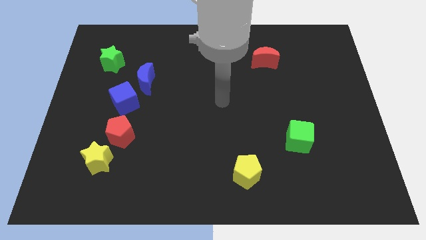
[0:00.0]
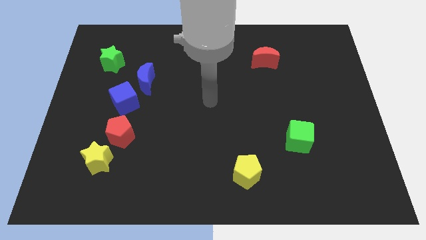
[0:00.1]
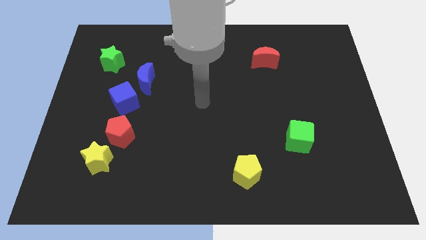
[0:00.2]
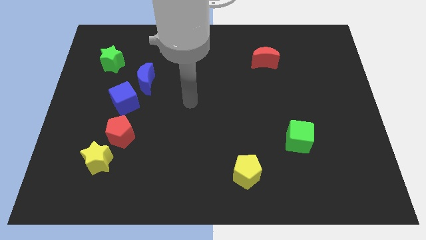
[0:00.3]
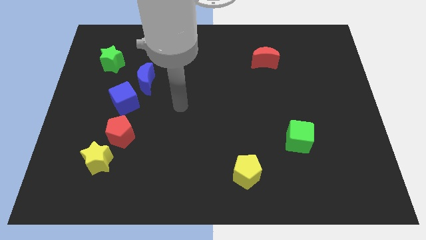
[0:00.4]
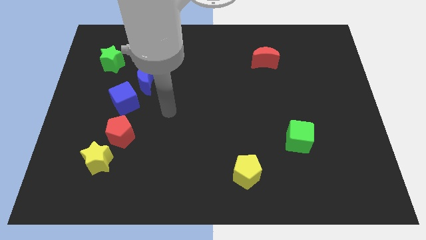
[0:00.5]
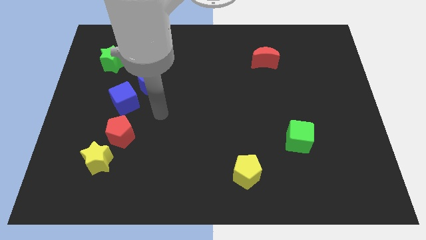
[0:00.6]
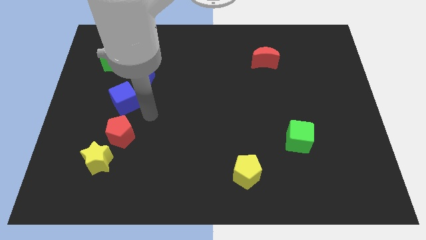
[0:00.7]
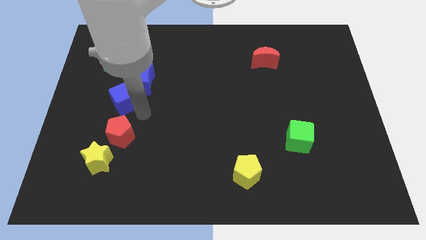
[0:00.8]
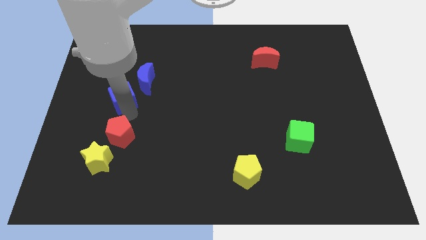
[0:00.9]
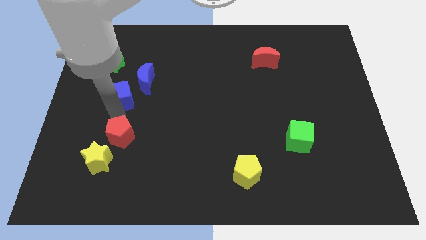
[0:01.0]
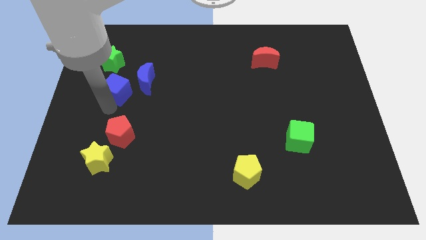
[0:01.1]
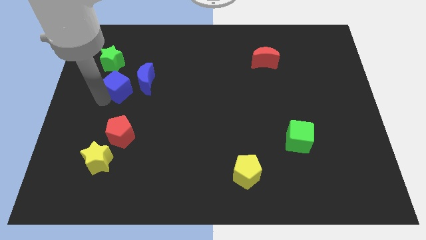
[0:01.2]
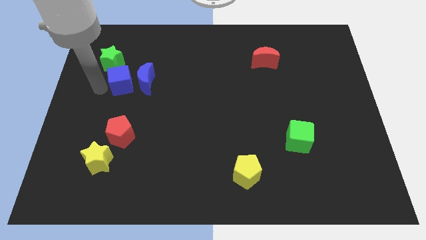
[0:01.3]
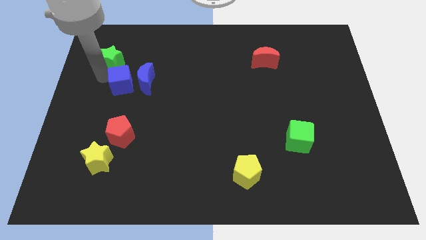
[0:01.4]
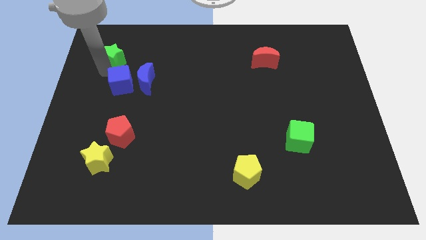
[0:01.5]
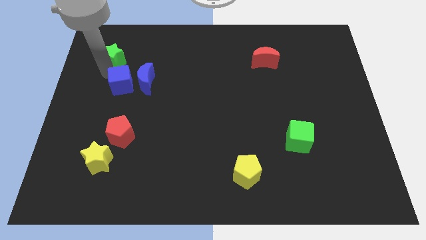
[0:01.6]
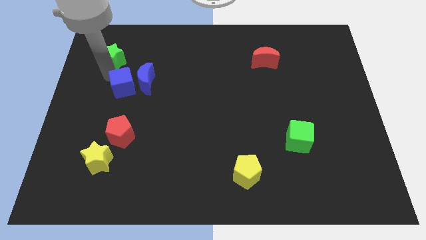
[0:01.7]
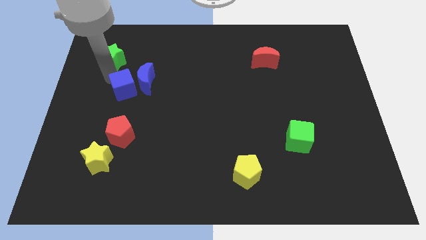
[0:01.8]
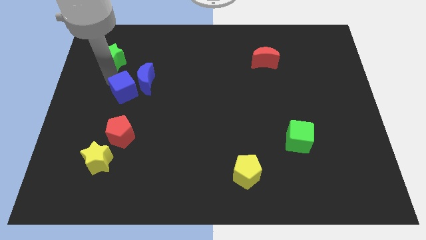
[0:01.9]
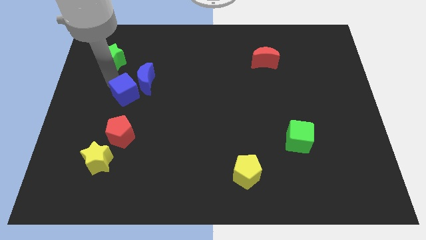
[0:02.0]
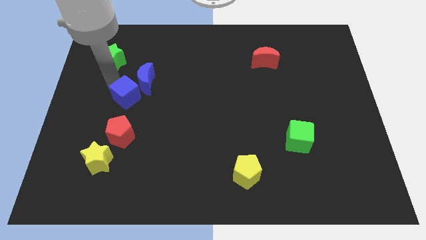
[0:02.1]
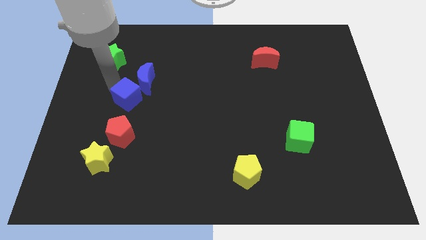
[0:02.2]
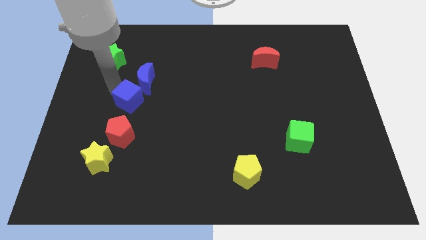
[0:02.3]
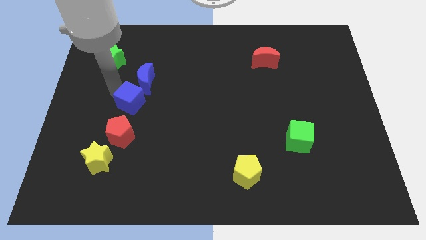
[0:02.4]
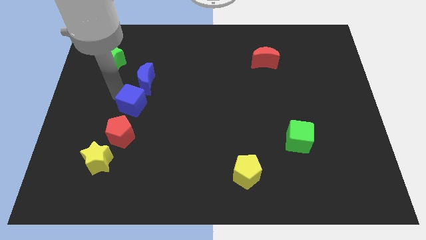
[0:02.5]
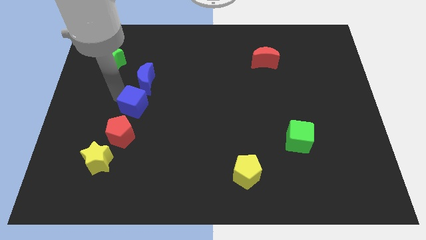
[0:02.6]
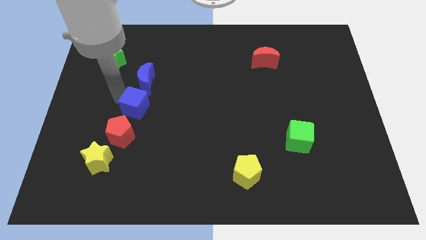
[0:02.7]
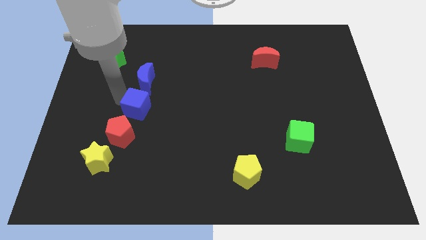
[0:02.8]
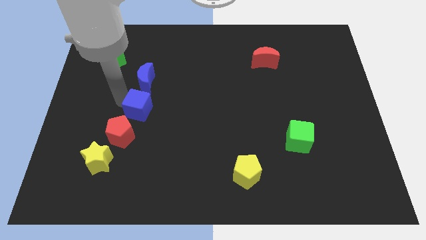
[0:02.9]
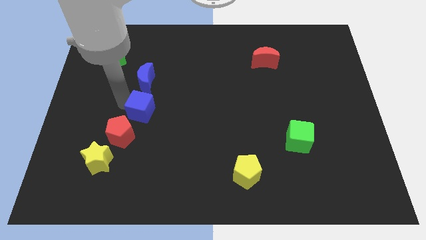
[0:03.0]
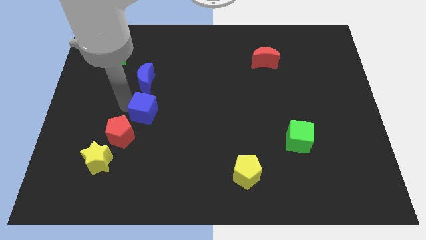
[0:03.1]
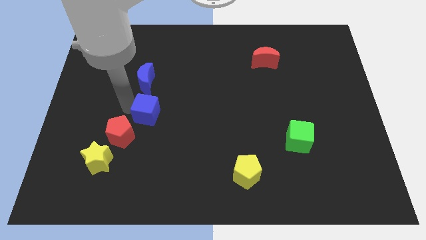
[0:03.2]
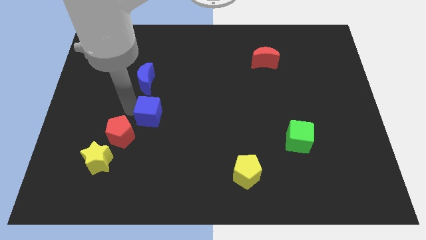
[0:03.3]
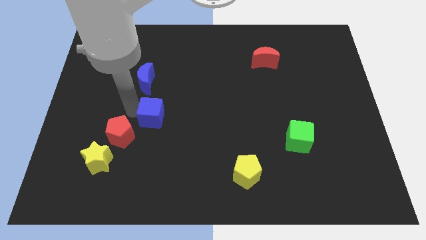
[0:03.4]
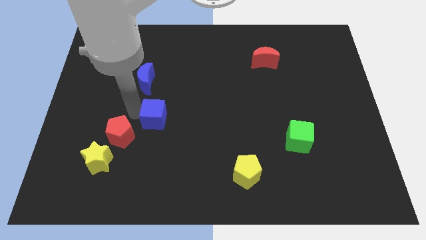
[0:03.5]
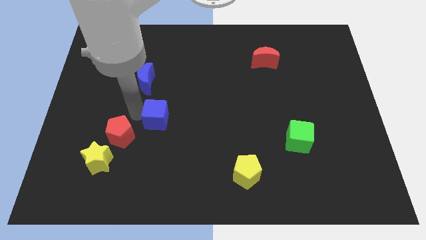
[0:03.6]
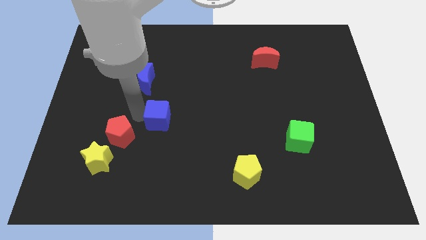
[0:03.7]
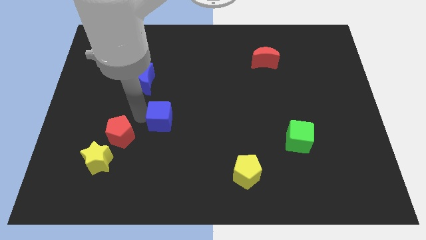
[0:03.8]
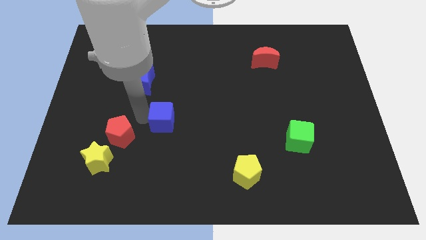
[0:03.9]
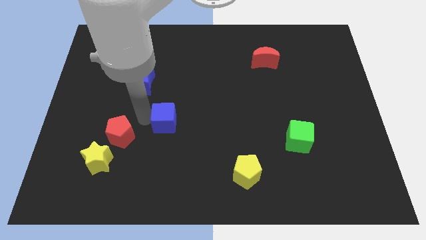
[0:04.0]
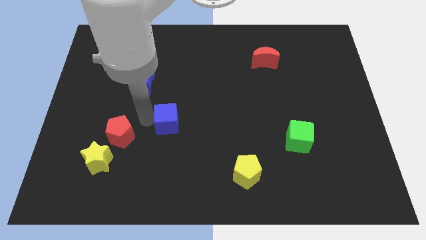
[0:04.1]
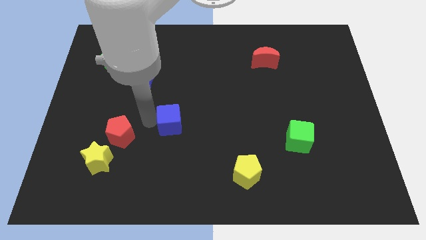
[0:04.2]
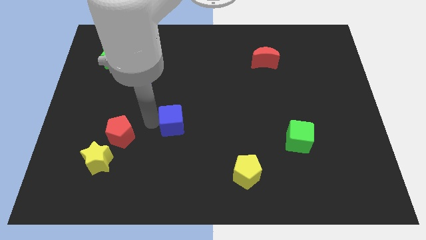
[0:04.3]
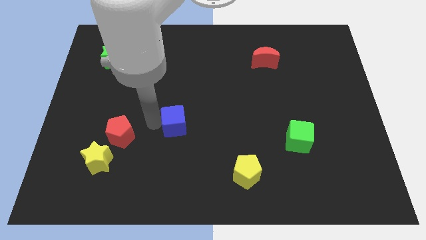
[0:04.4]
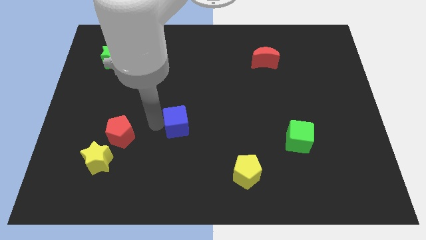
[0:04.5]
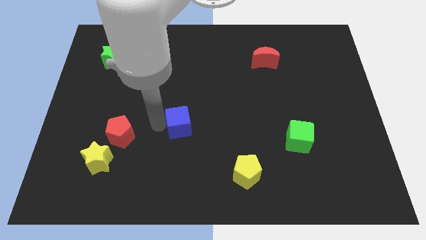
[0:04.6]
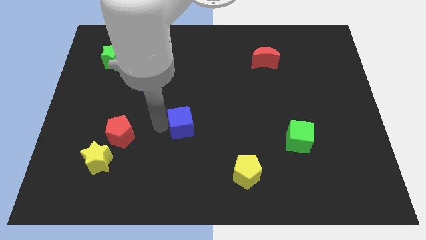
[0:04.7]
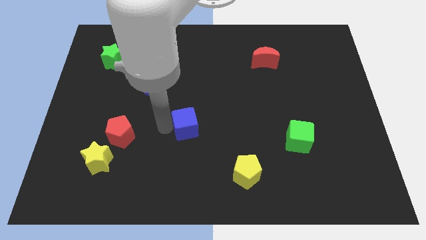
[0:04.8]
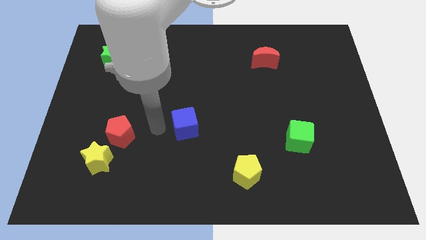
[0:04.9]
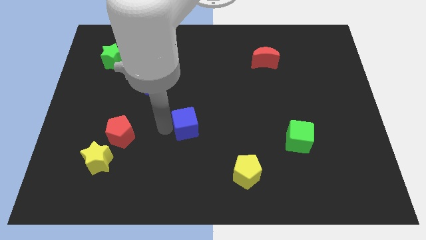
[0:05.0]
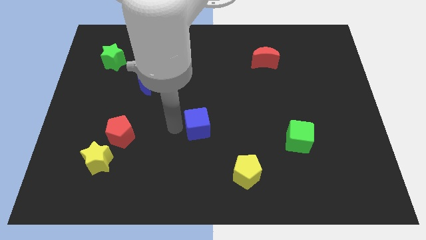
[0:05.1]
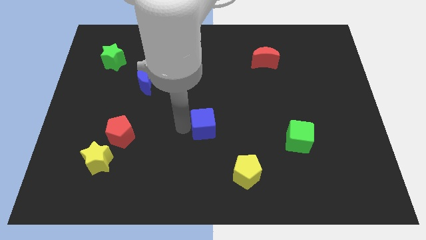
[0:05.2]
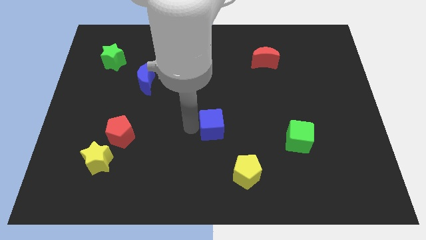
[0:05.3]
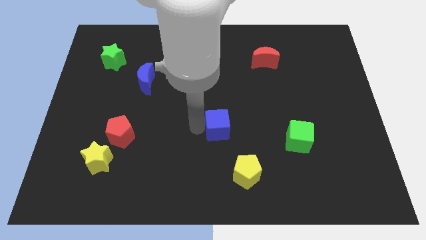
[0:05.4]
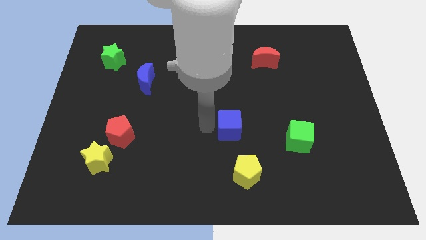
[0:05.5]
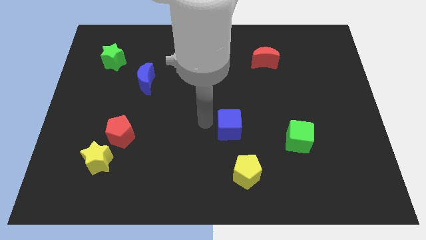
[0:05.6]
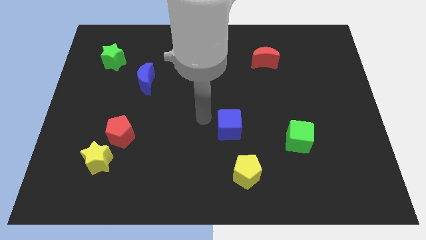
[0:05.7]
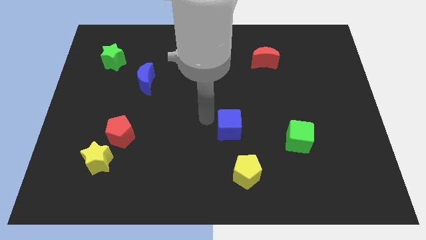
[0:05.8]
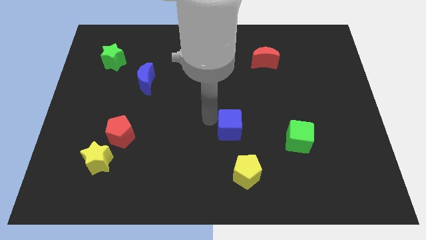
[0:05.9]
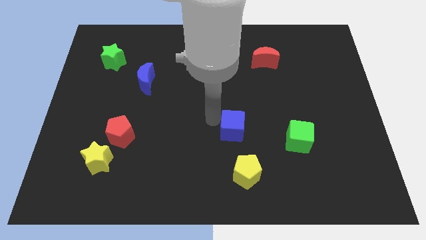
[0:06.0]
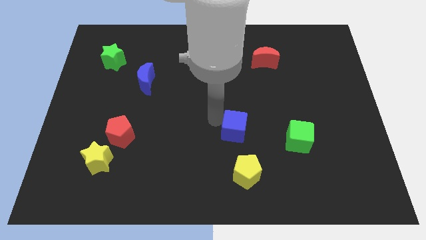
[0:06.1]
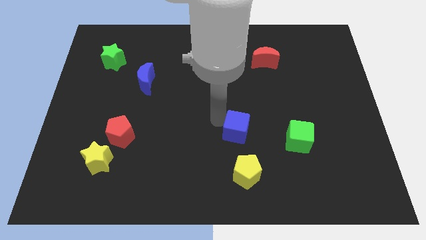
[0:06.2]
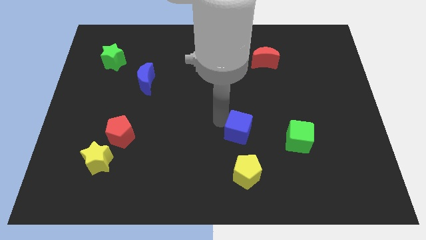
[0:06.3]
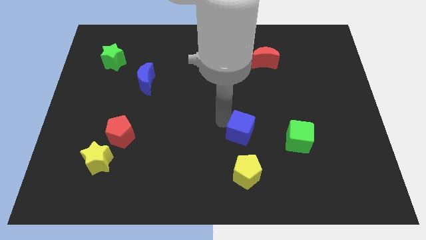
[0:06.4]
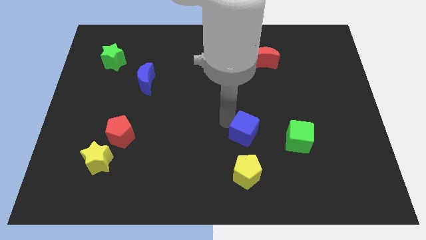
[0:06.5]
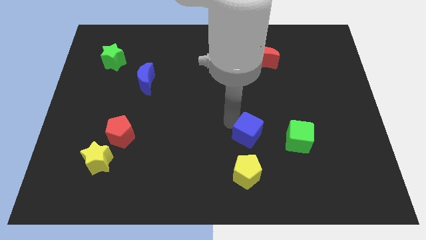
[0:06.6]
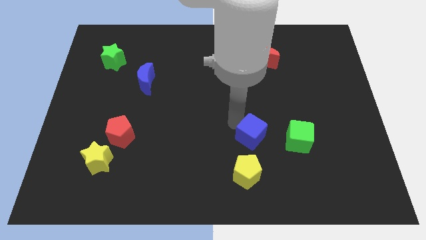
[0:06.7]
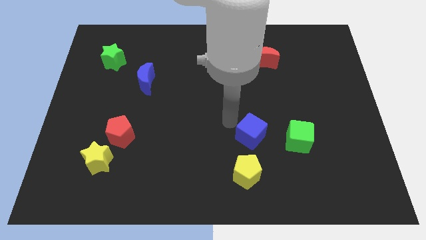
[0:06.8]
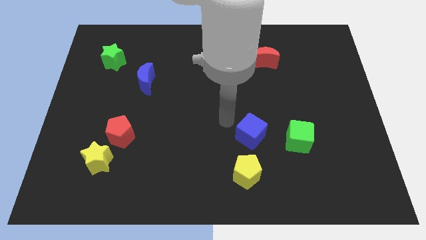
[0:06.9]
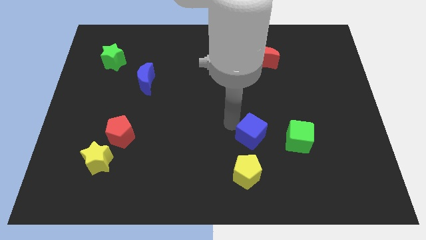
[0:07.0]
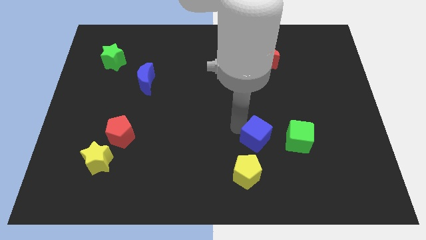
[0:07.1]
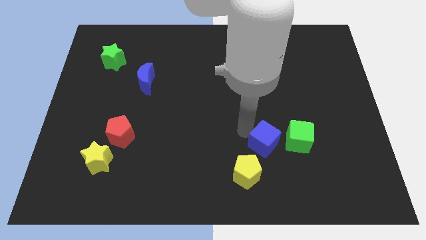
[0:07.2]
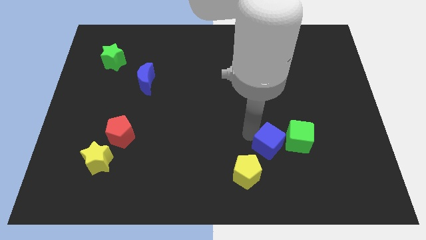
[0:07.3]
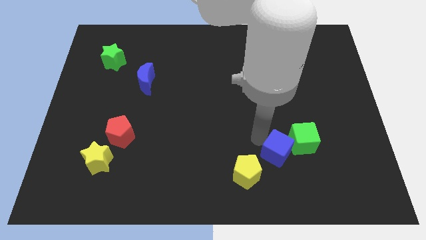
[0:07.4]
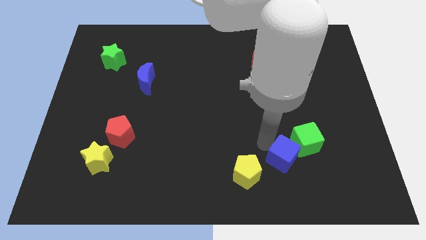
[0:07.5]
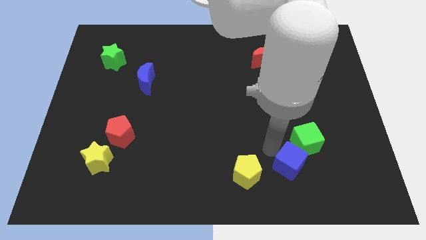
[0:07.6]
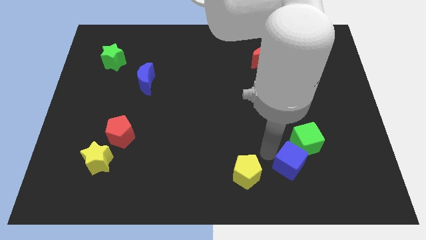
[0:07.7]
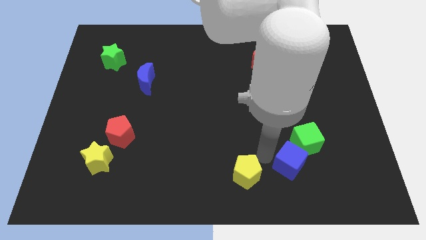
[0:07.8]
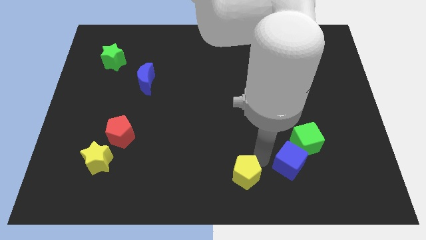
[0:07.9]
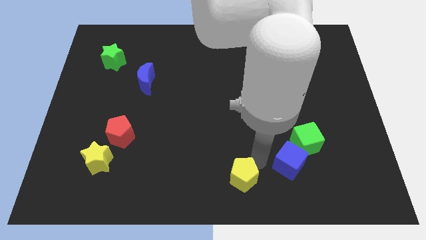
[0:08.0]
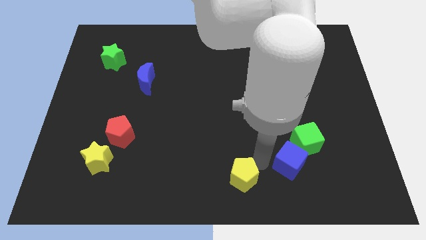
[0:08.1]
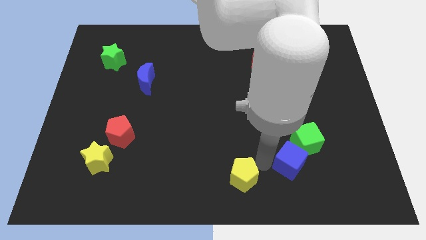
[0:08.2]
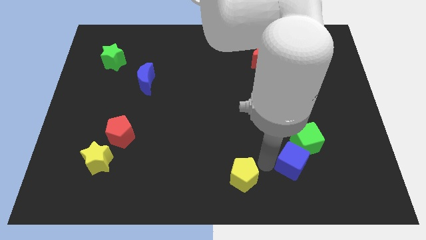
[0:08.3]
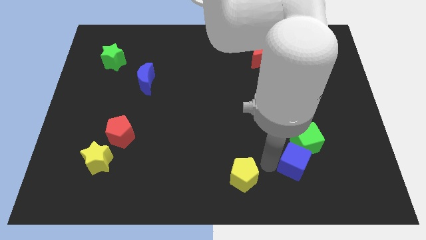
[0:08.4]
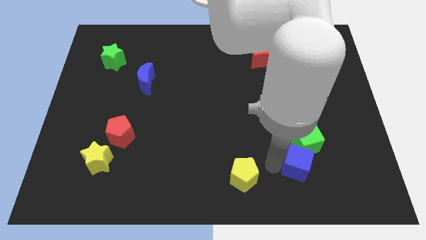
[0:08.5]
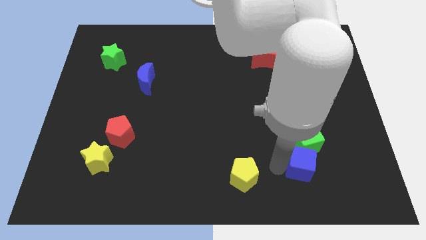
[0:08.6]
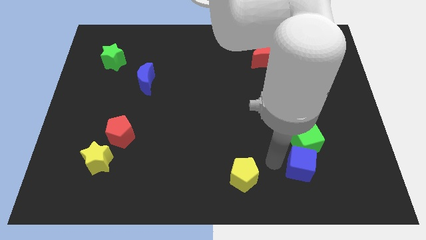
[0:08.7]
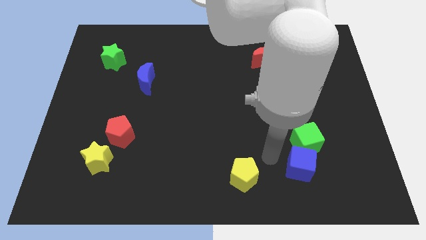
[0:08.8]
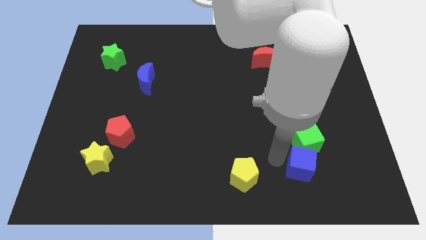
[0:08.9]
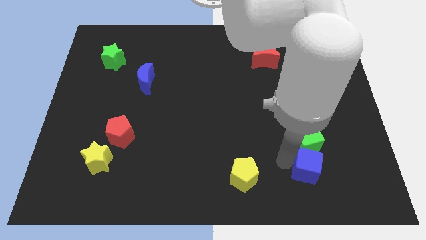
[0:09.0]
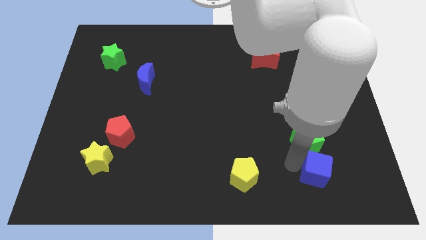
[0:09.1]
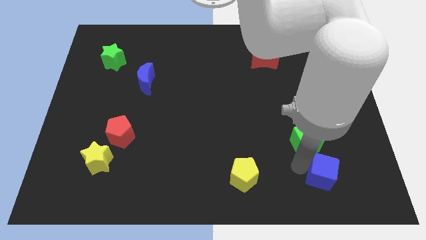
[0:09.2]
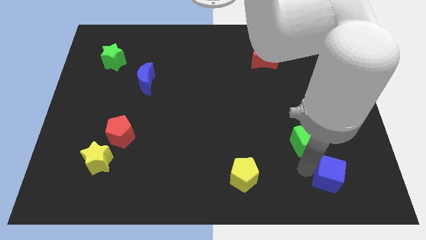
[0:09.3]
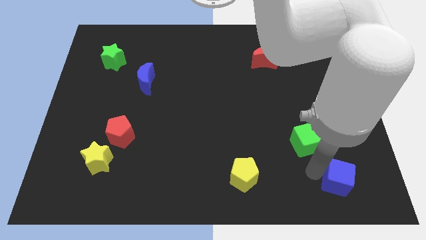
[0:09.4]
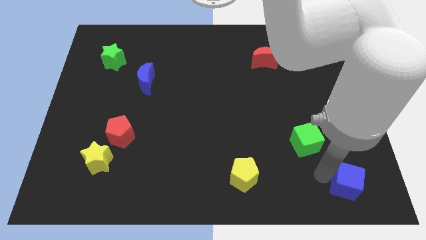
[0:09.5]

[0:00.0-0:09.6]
put the blue cube to the bottom right corner
